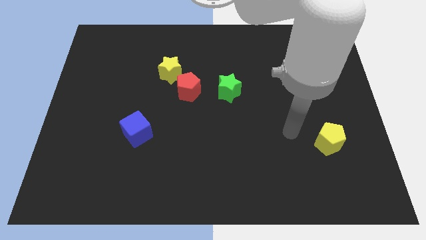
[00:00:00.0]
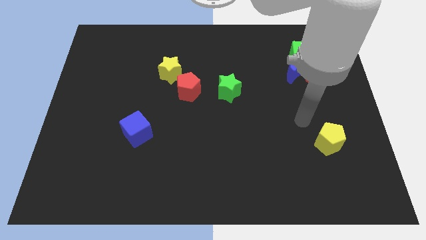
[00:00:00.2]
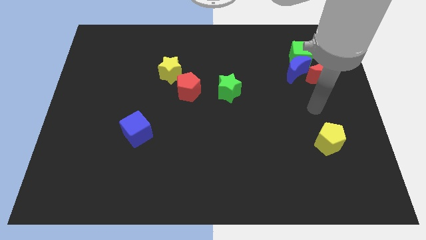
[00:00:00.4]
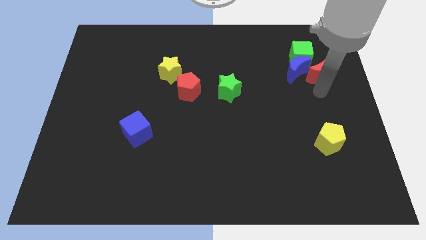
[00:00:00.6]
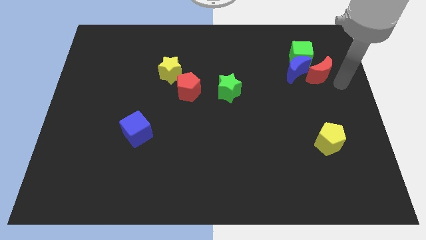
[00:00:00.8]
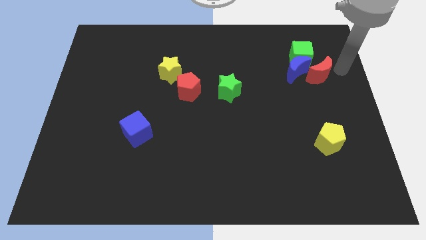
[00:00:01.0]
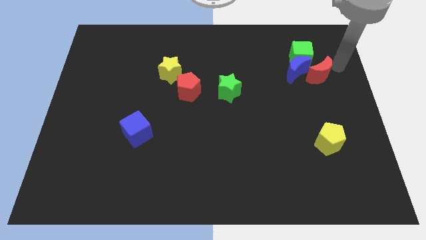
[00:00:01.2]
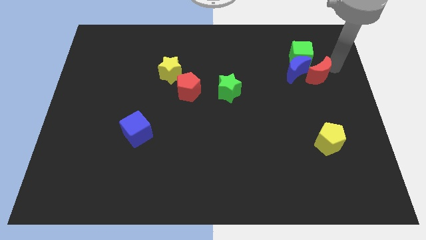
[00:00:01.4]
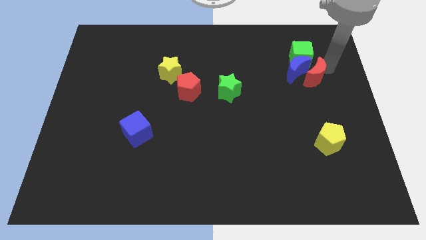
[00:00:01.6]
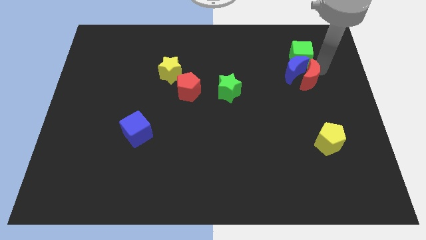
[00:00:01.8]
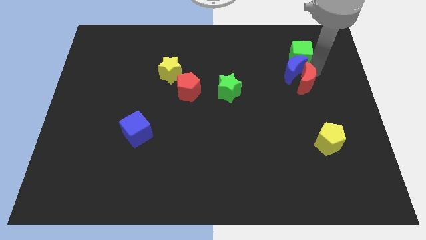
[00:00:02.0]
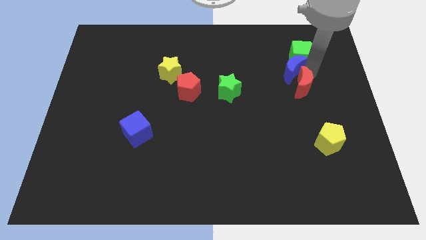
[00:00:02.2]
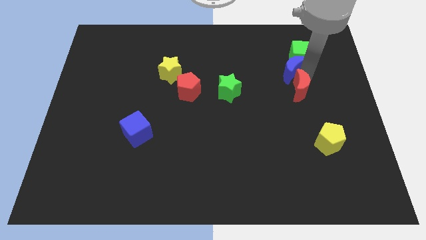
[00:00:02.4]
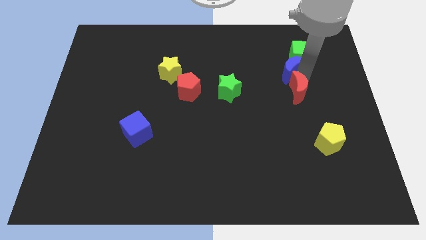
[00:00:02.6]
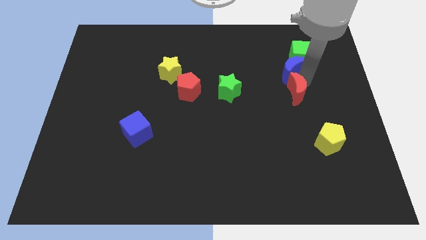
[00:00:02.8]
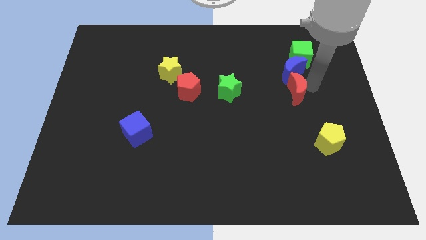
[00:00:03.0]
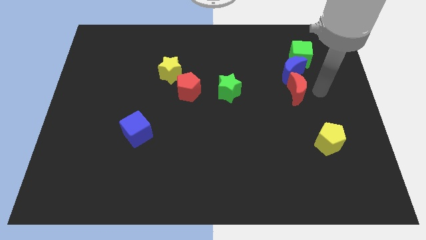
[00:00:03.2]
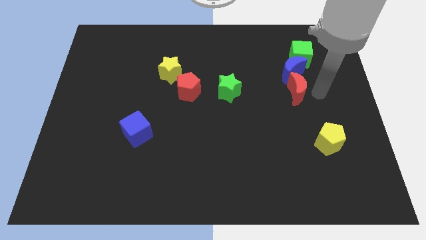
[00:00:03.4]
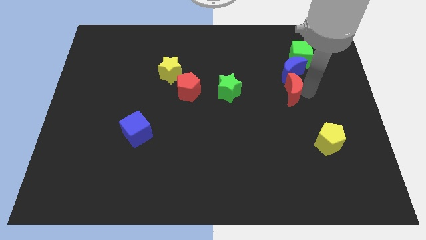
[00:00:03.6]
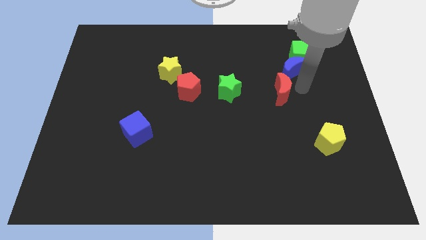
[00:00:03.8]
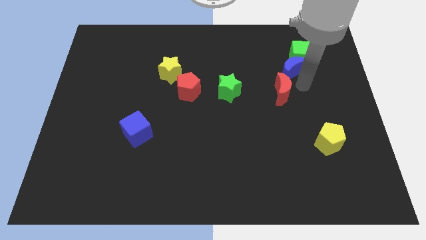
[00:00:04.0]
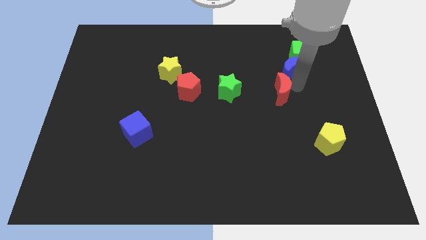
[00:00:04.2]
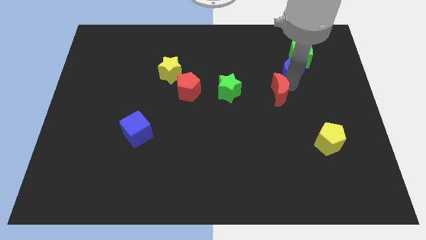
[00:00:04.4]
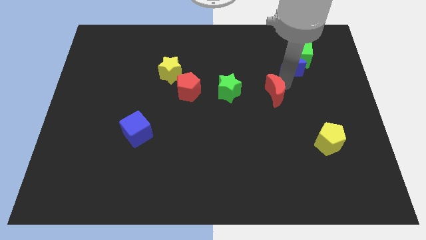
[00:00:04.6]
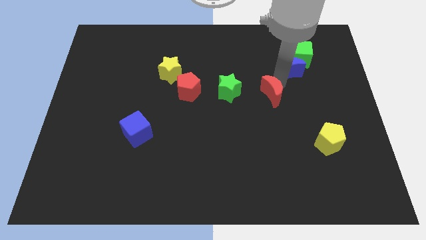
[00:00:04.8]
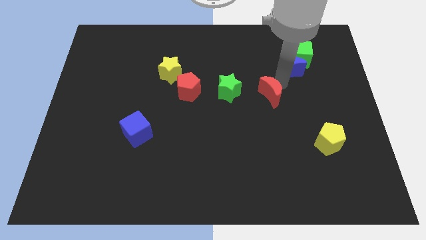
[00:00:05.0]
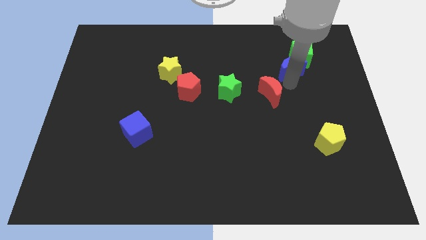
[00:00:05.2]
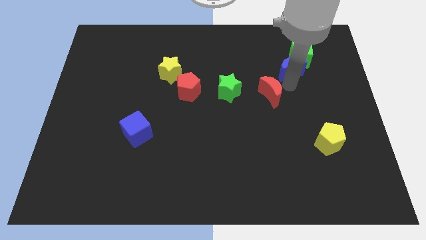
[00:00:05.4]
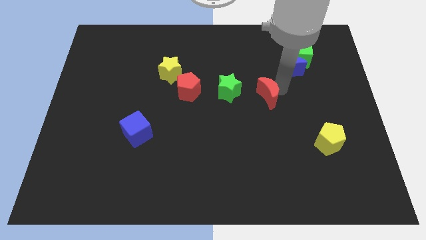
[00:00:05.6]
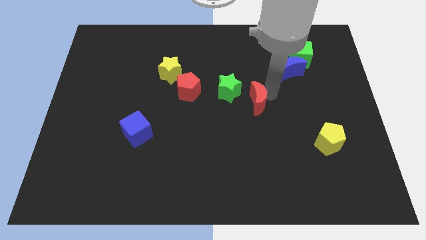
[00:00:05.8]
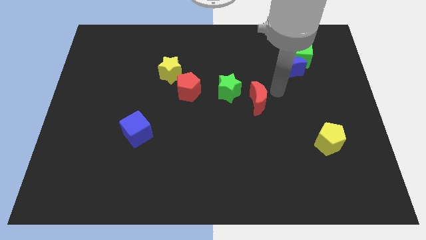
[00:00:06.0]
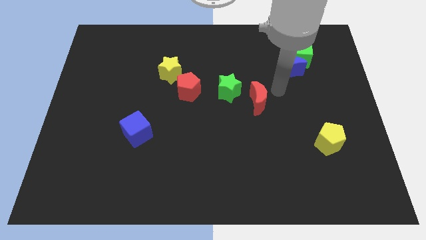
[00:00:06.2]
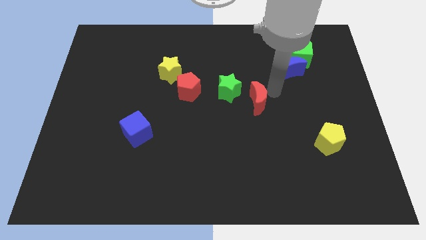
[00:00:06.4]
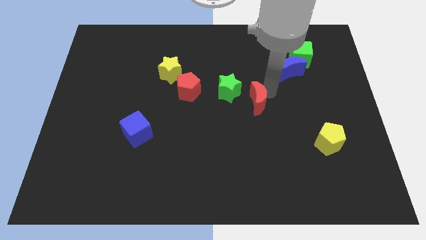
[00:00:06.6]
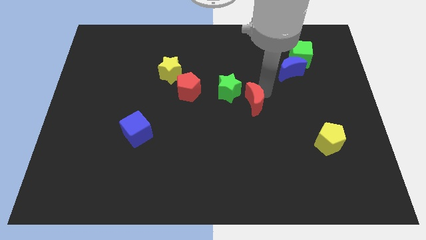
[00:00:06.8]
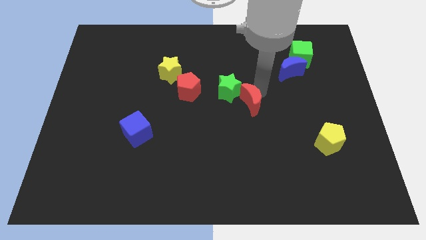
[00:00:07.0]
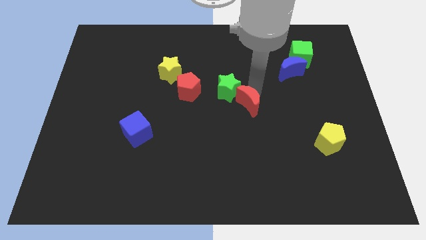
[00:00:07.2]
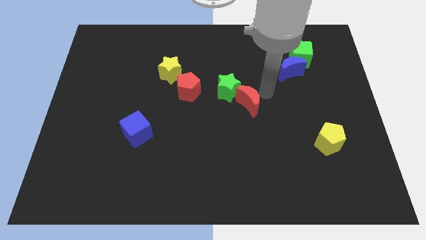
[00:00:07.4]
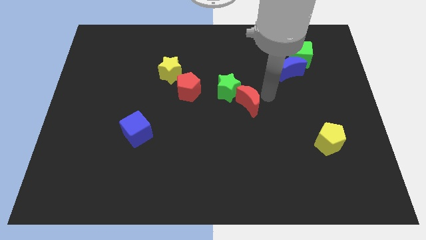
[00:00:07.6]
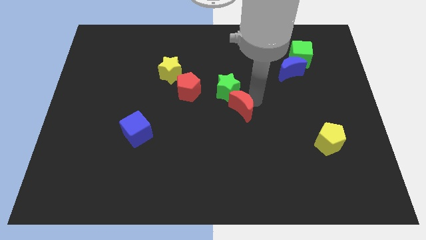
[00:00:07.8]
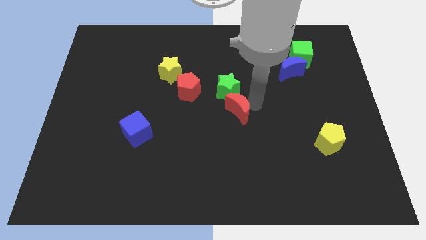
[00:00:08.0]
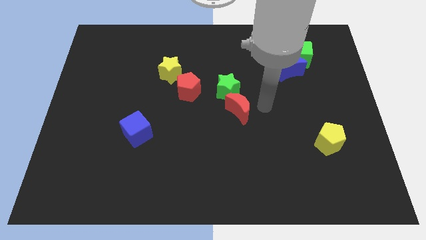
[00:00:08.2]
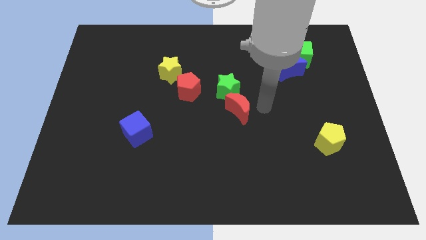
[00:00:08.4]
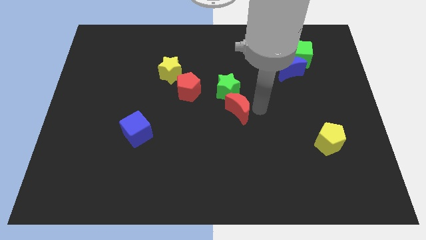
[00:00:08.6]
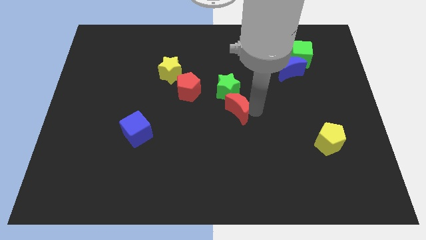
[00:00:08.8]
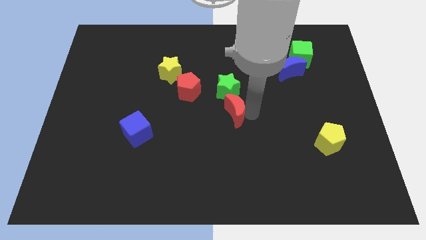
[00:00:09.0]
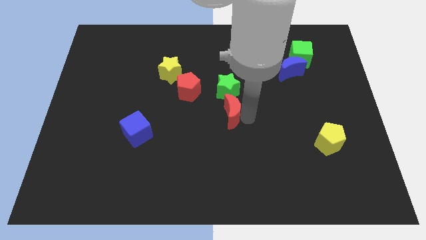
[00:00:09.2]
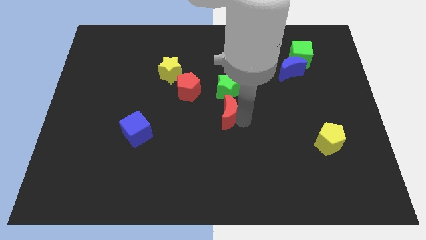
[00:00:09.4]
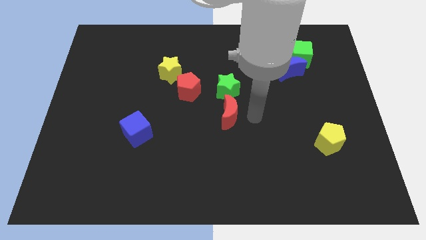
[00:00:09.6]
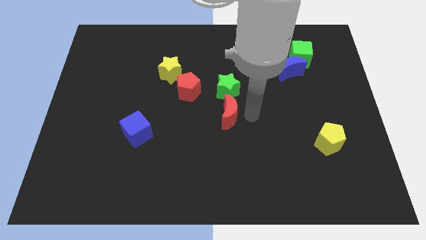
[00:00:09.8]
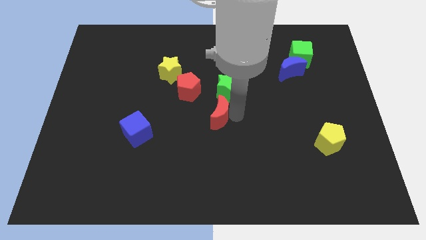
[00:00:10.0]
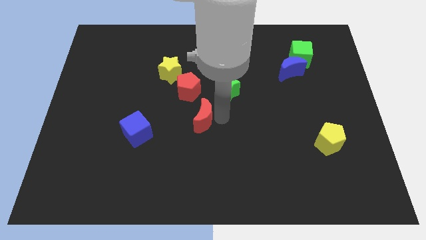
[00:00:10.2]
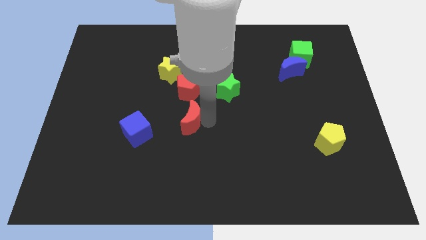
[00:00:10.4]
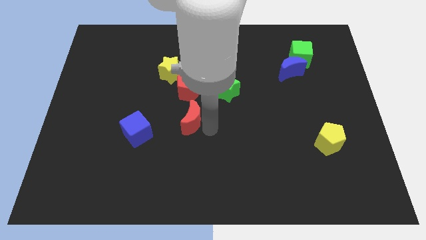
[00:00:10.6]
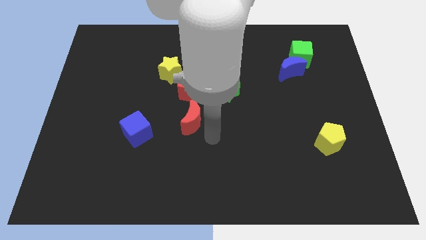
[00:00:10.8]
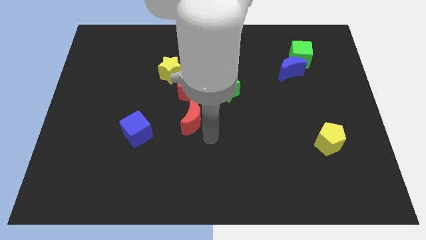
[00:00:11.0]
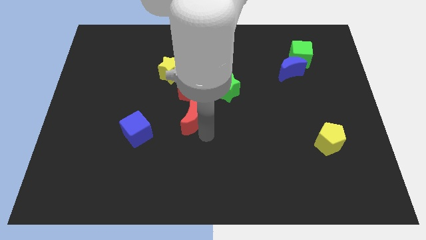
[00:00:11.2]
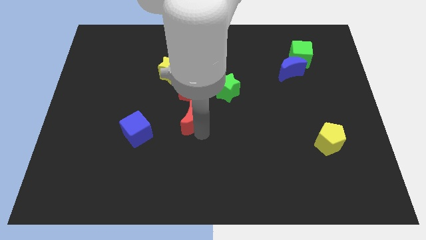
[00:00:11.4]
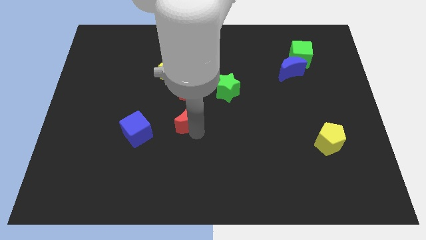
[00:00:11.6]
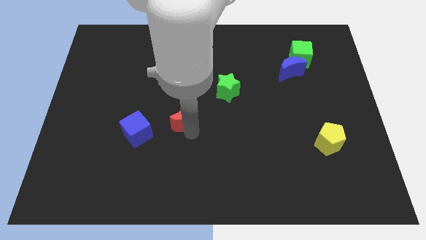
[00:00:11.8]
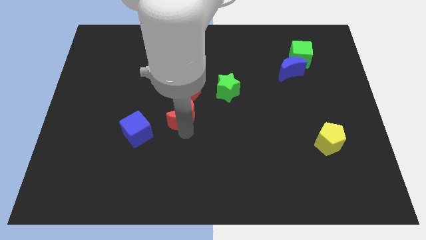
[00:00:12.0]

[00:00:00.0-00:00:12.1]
move the red moon below the yellow star

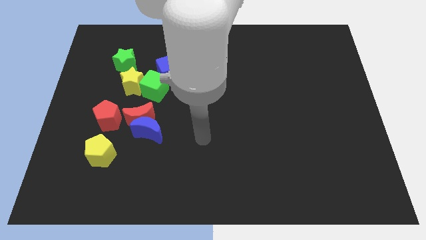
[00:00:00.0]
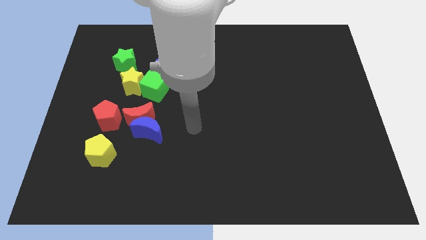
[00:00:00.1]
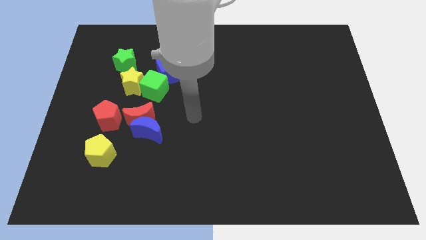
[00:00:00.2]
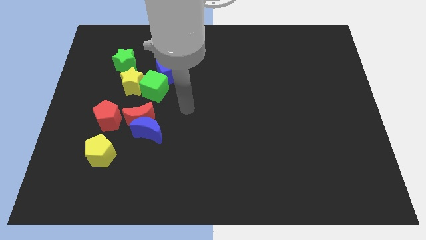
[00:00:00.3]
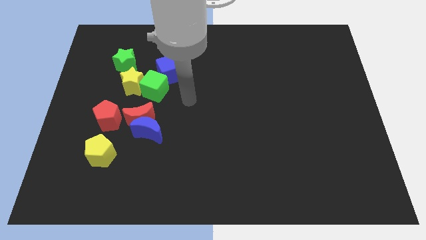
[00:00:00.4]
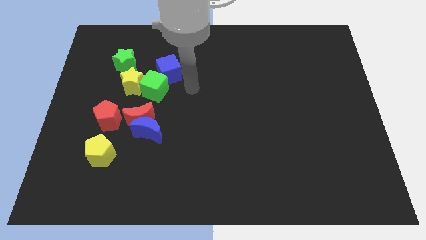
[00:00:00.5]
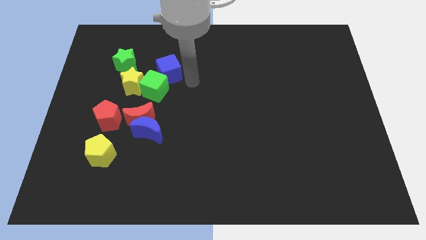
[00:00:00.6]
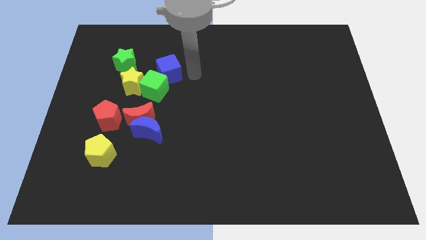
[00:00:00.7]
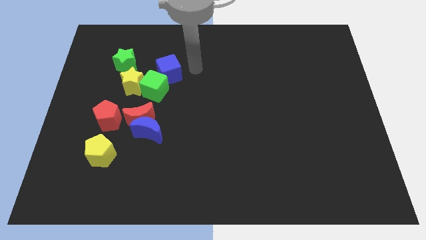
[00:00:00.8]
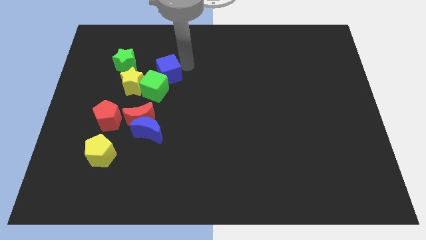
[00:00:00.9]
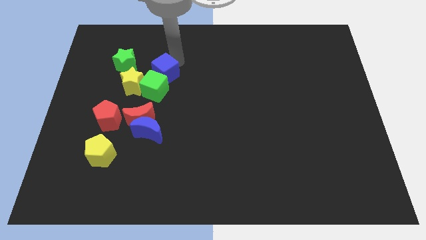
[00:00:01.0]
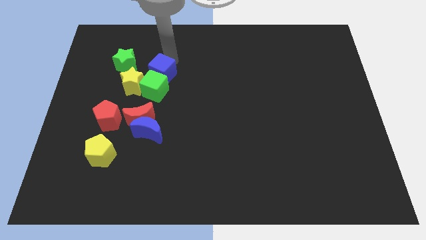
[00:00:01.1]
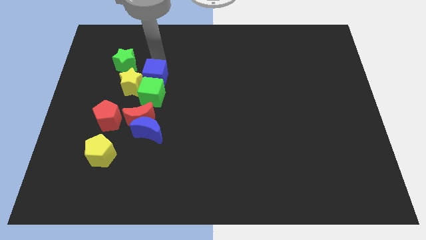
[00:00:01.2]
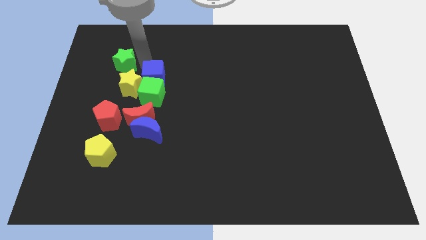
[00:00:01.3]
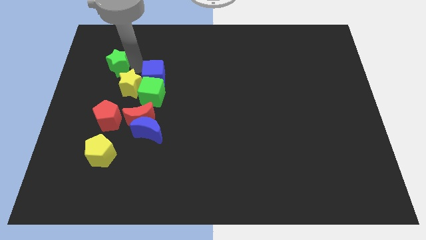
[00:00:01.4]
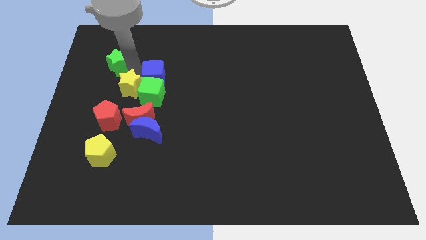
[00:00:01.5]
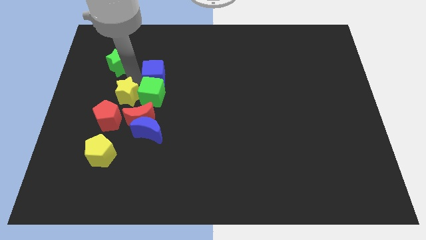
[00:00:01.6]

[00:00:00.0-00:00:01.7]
put the yellow star to the top left side of the blue moon
